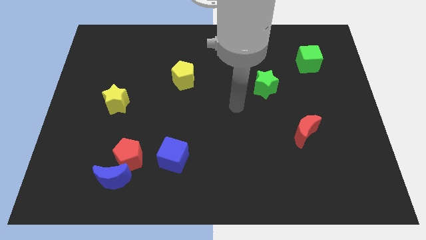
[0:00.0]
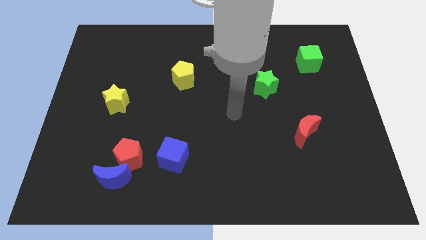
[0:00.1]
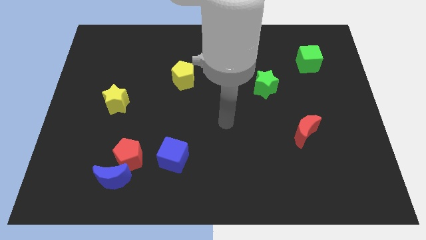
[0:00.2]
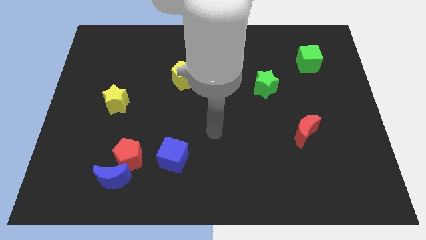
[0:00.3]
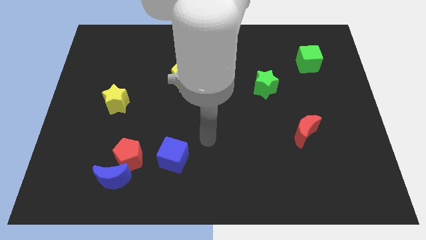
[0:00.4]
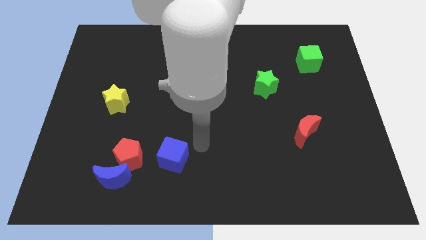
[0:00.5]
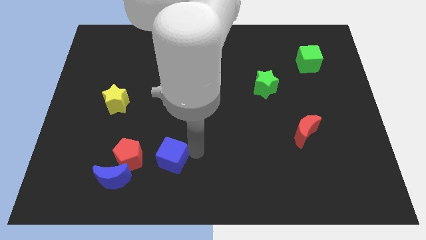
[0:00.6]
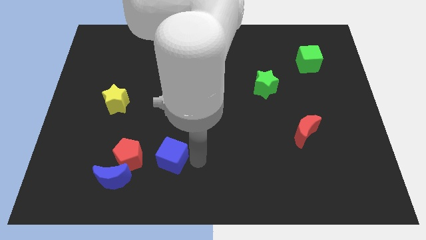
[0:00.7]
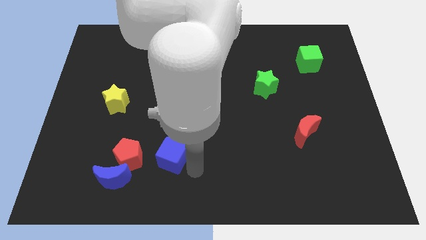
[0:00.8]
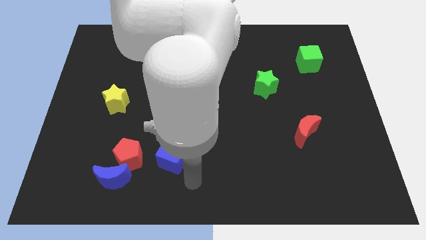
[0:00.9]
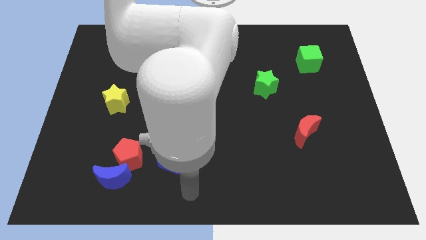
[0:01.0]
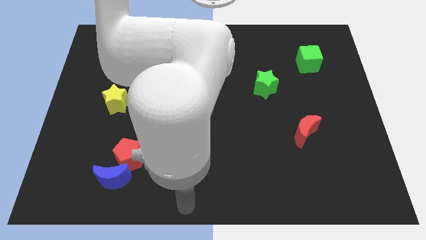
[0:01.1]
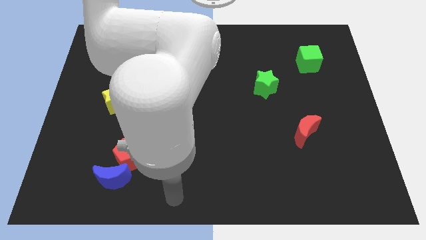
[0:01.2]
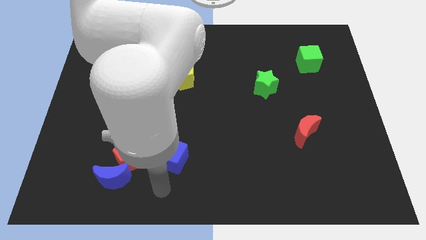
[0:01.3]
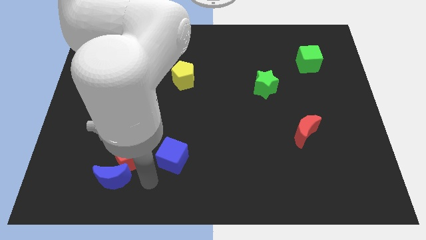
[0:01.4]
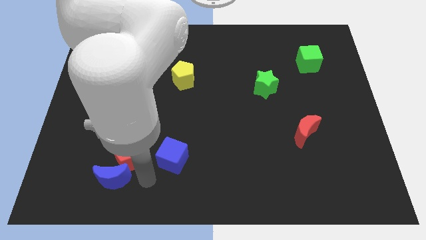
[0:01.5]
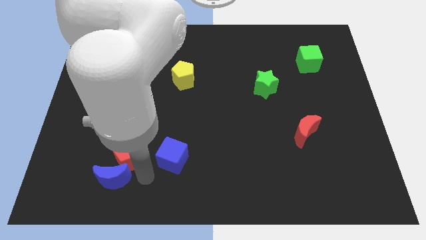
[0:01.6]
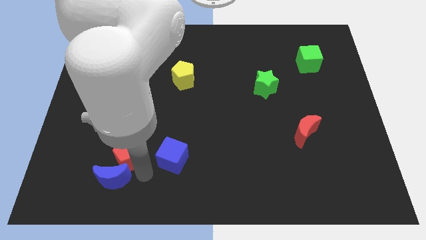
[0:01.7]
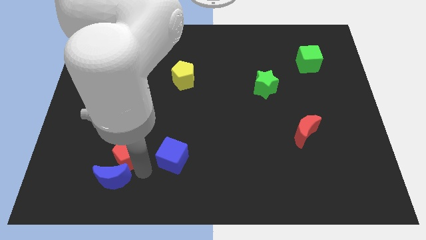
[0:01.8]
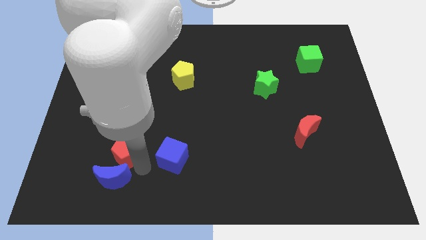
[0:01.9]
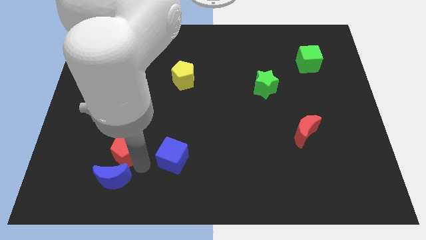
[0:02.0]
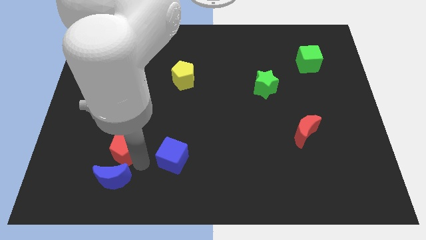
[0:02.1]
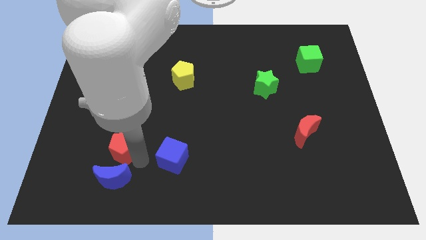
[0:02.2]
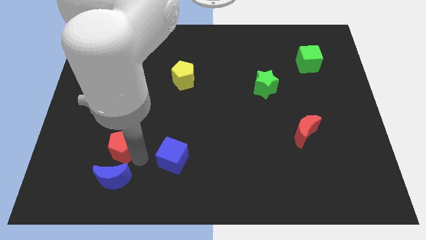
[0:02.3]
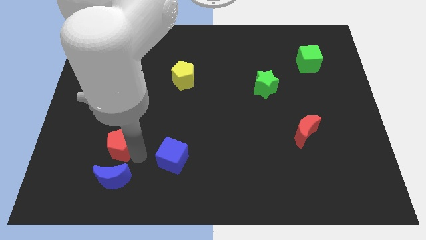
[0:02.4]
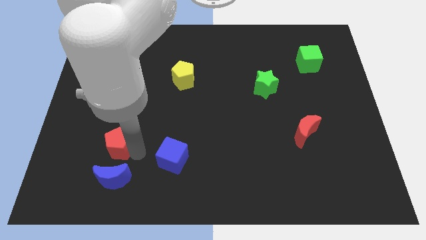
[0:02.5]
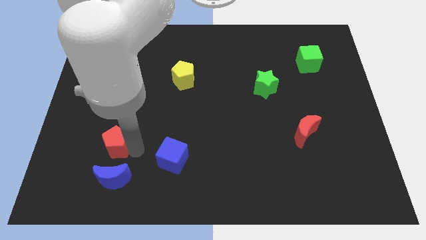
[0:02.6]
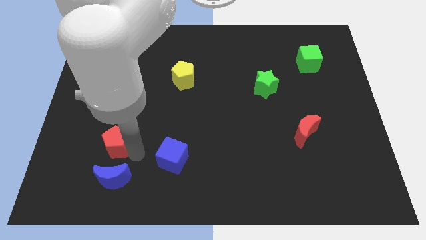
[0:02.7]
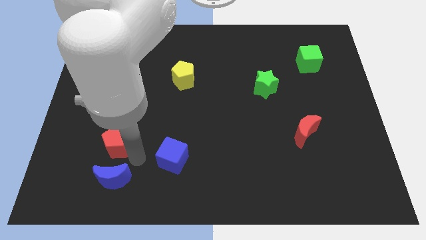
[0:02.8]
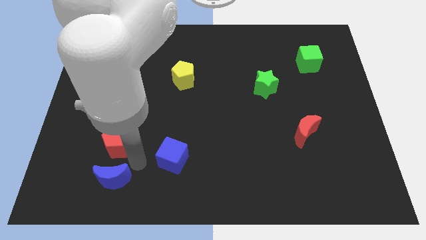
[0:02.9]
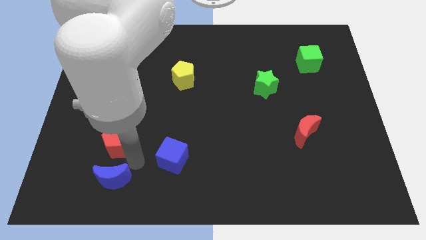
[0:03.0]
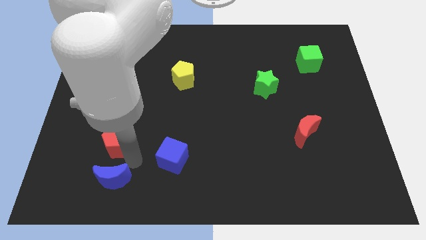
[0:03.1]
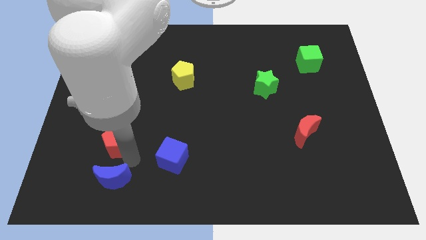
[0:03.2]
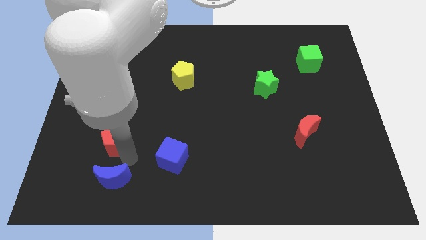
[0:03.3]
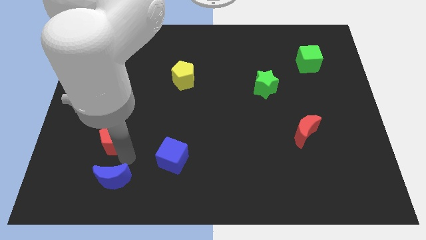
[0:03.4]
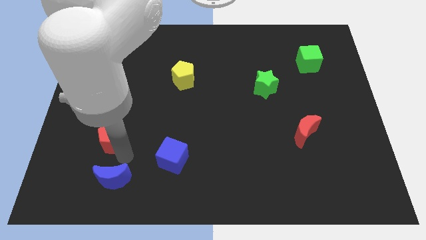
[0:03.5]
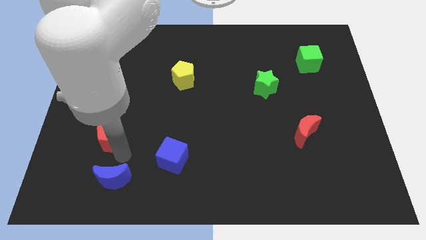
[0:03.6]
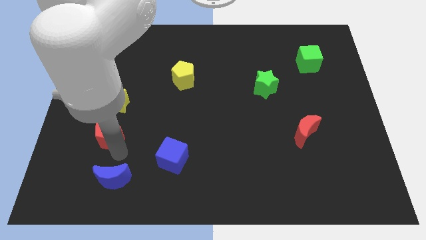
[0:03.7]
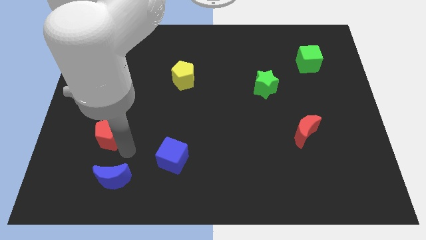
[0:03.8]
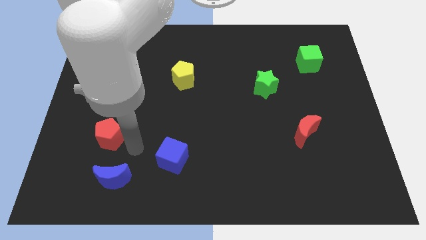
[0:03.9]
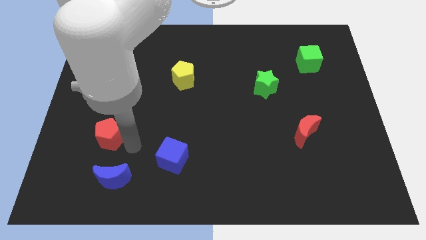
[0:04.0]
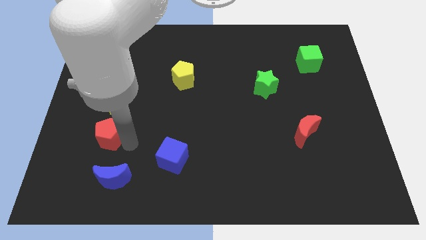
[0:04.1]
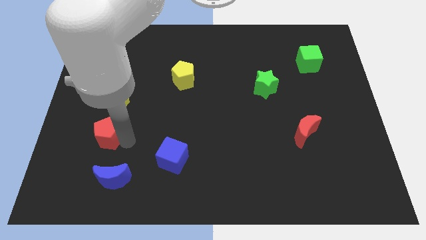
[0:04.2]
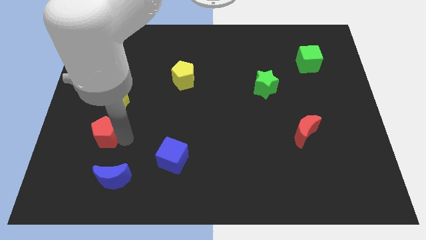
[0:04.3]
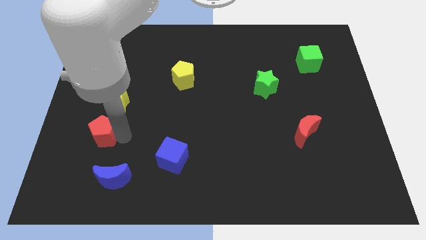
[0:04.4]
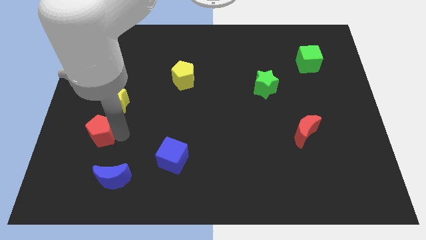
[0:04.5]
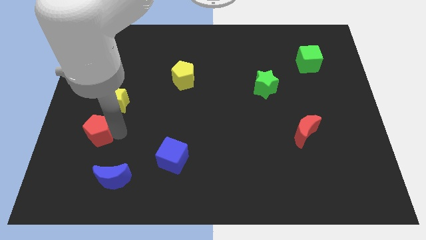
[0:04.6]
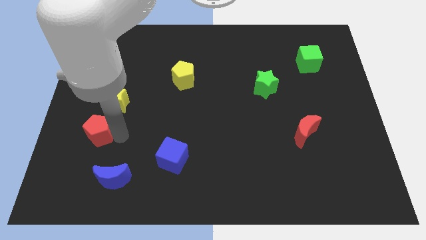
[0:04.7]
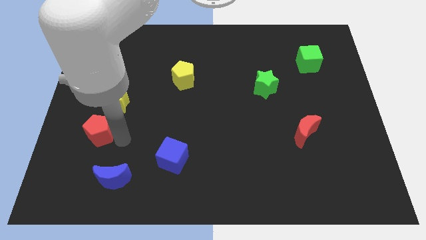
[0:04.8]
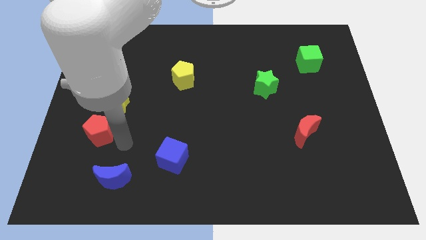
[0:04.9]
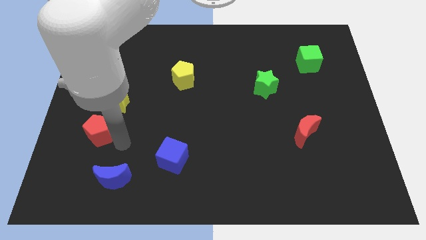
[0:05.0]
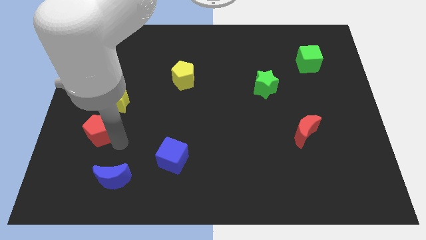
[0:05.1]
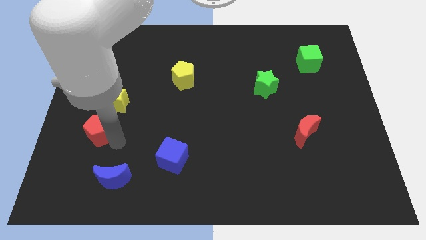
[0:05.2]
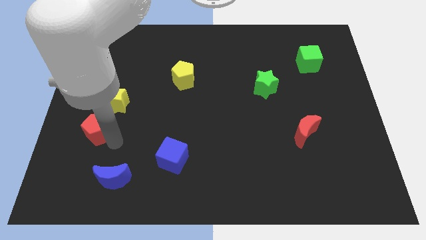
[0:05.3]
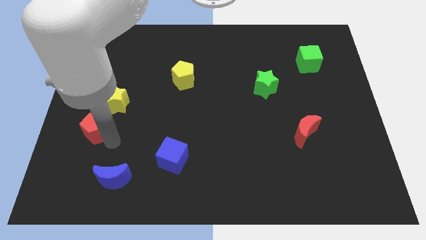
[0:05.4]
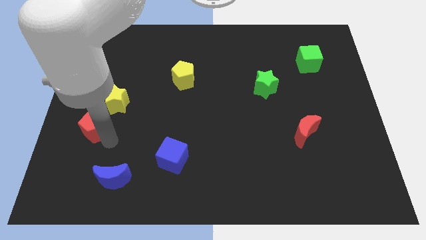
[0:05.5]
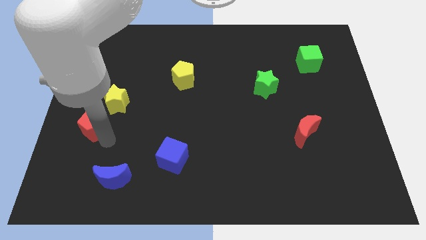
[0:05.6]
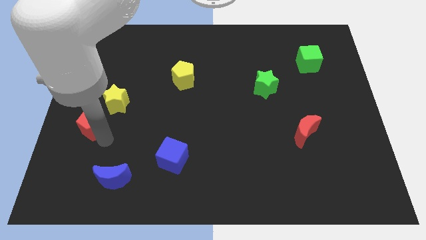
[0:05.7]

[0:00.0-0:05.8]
push the red pentagon to the left side of the board

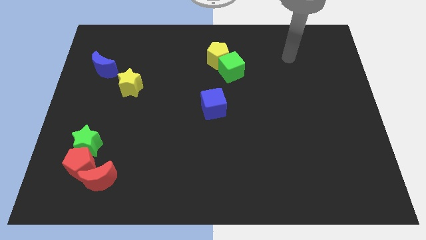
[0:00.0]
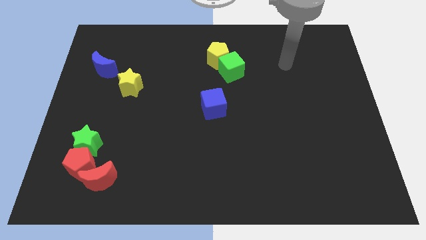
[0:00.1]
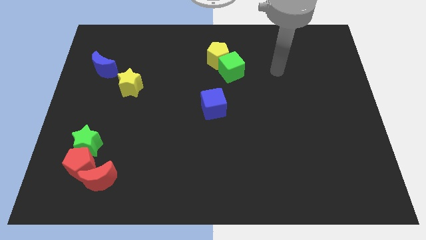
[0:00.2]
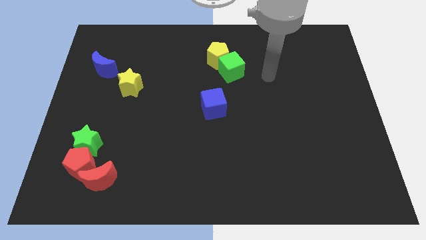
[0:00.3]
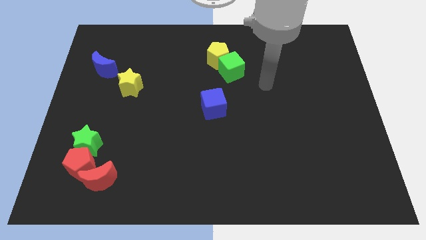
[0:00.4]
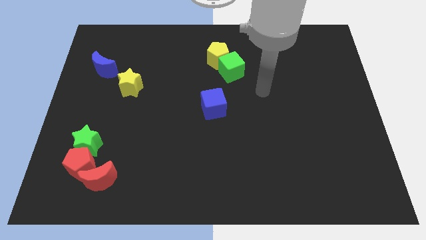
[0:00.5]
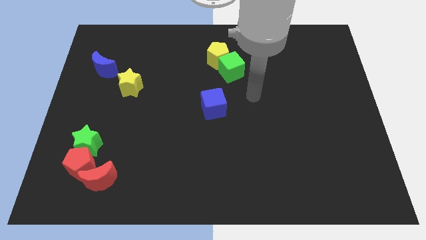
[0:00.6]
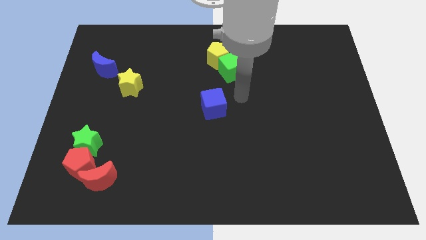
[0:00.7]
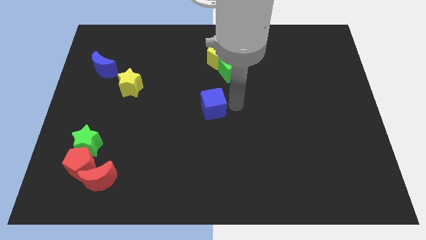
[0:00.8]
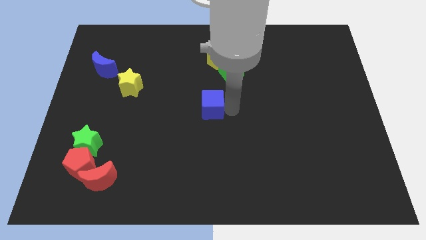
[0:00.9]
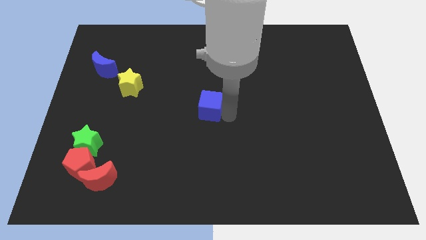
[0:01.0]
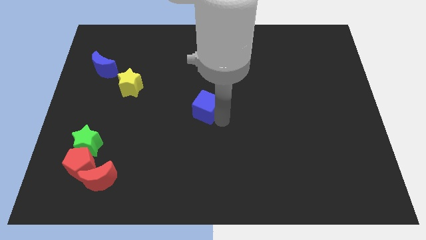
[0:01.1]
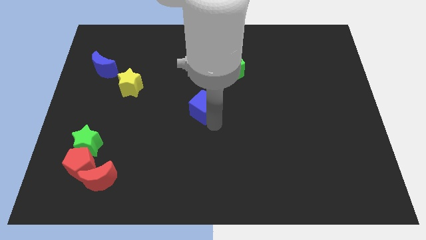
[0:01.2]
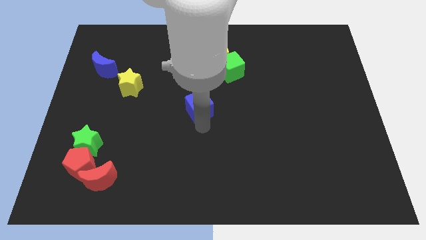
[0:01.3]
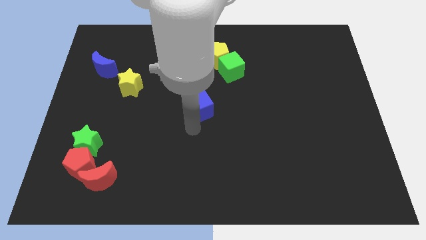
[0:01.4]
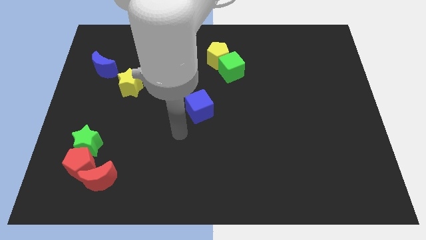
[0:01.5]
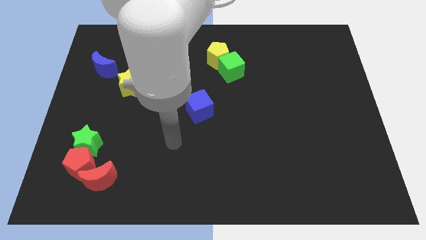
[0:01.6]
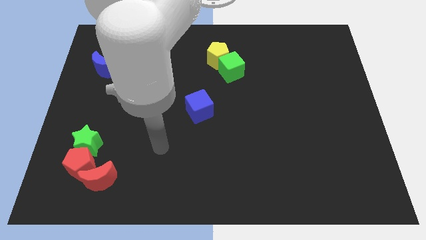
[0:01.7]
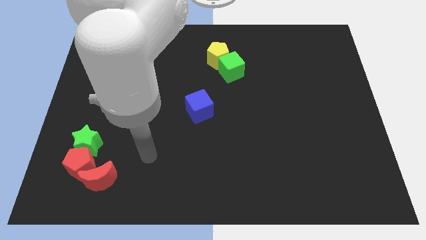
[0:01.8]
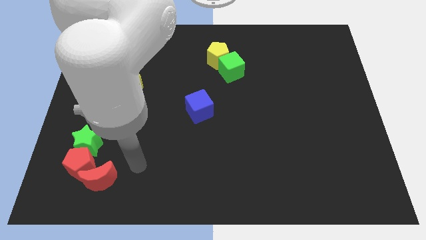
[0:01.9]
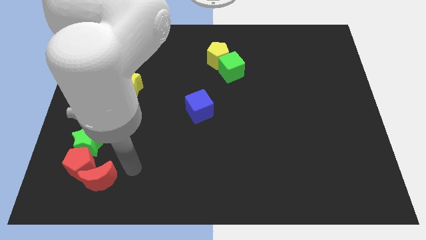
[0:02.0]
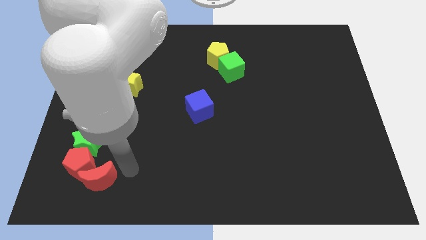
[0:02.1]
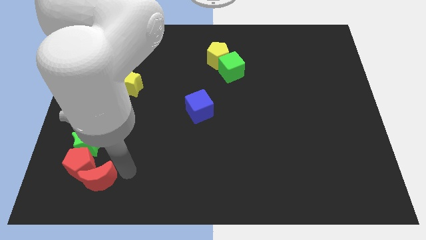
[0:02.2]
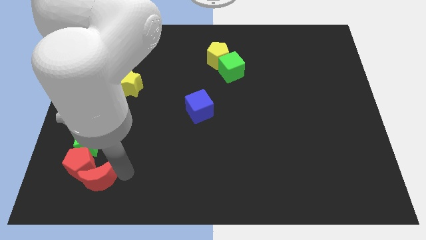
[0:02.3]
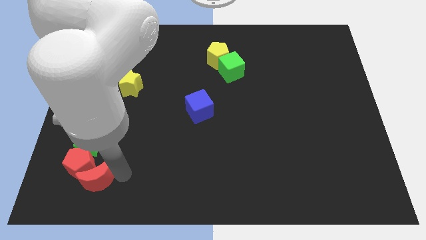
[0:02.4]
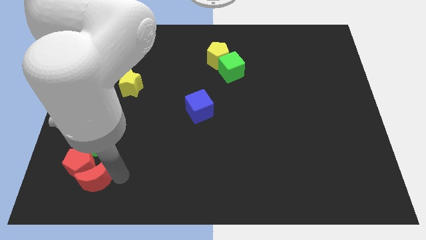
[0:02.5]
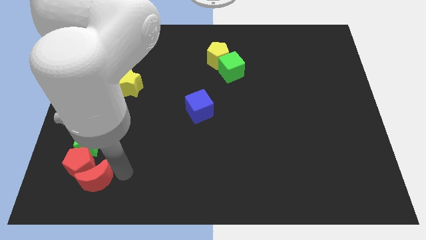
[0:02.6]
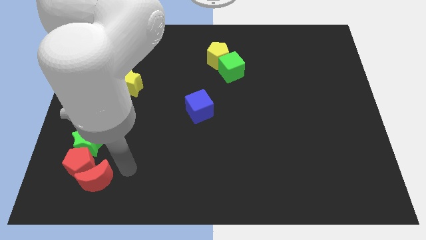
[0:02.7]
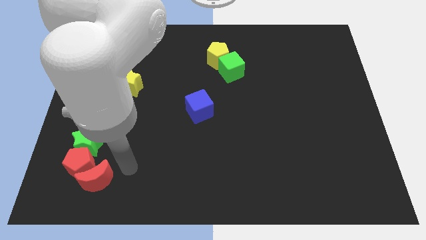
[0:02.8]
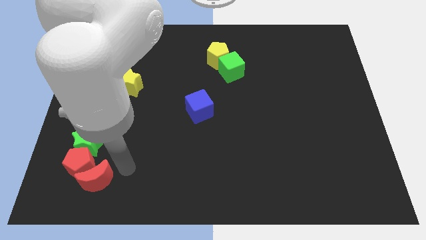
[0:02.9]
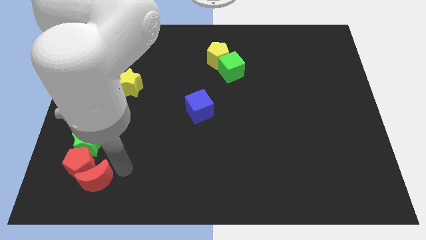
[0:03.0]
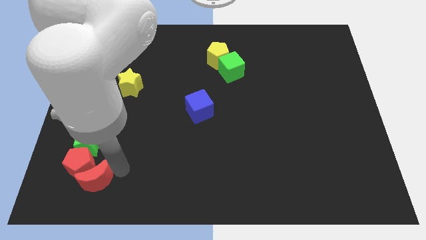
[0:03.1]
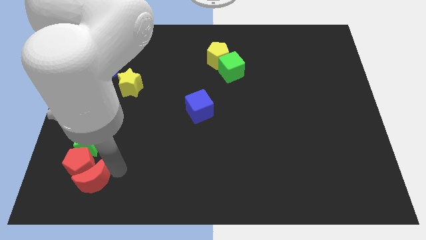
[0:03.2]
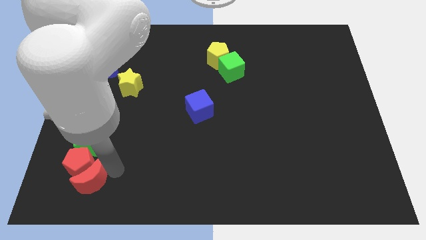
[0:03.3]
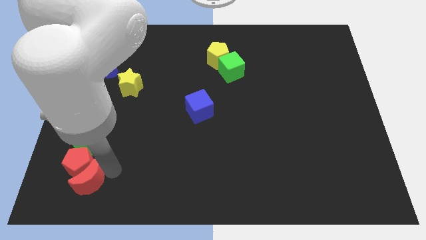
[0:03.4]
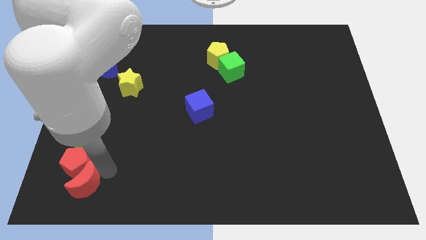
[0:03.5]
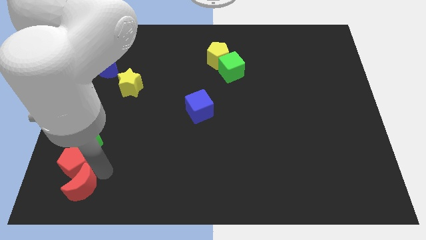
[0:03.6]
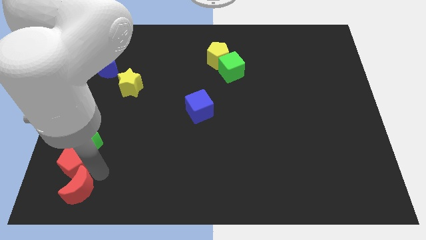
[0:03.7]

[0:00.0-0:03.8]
move the red moon to the bottom left of the board
